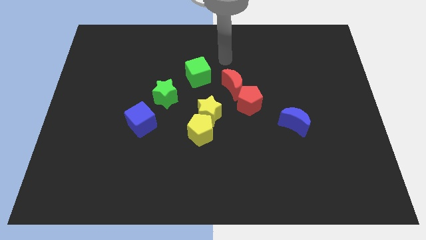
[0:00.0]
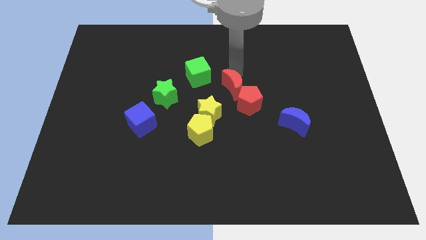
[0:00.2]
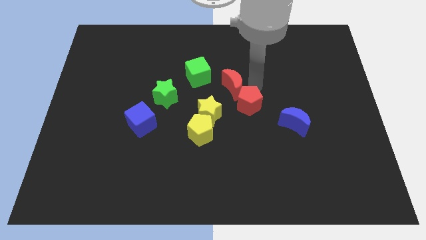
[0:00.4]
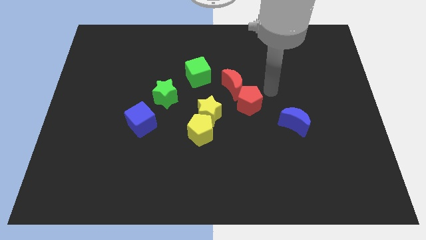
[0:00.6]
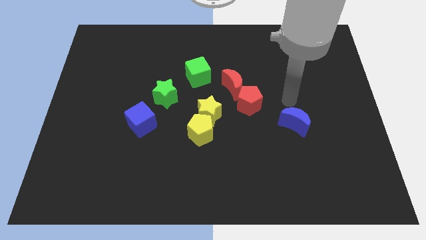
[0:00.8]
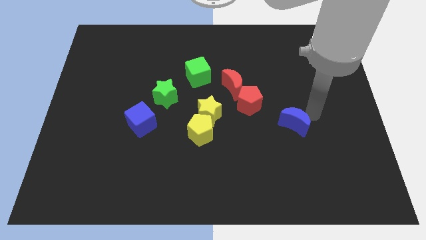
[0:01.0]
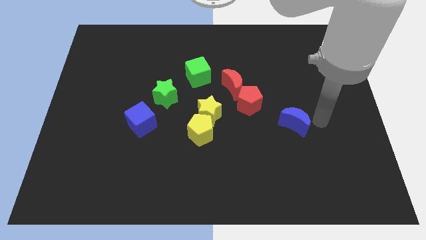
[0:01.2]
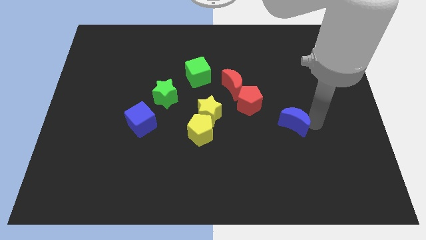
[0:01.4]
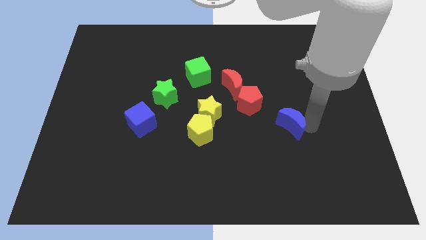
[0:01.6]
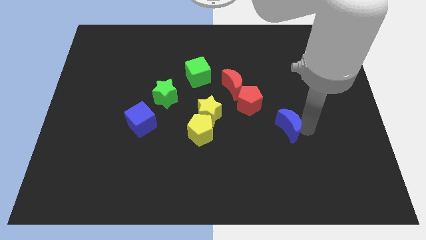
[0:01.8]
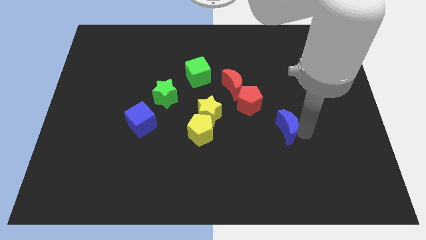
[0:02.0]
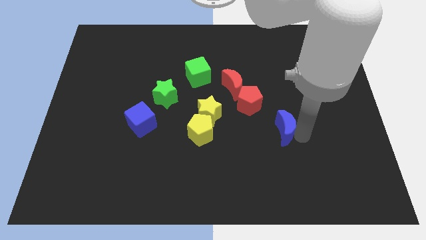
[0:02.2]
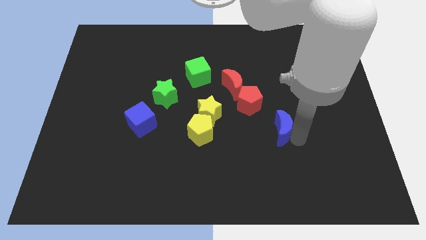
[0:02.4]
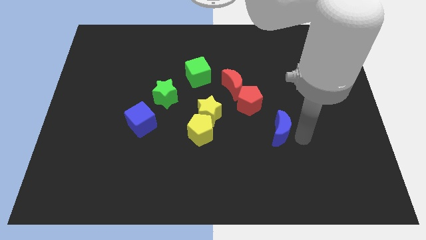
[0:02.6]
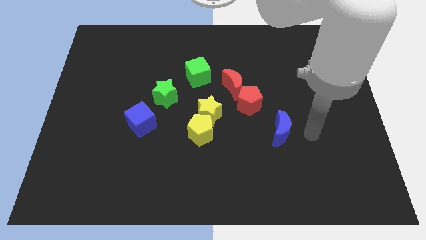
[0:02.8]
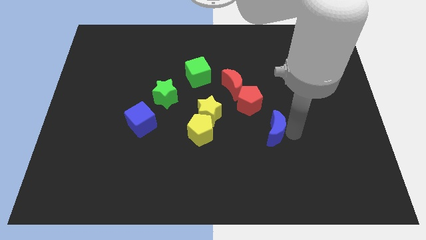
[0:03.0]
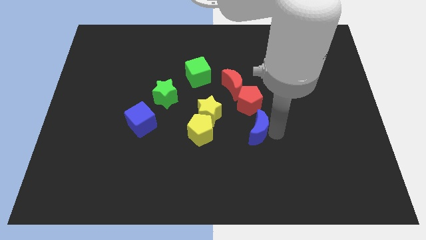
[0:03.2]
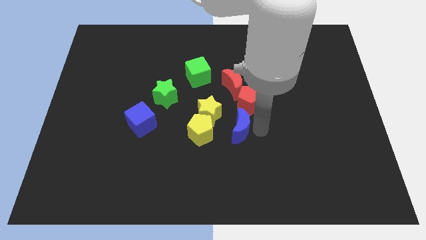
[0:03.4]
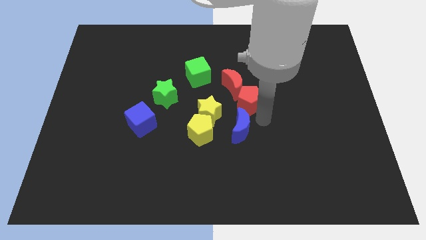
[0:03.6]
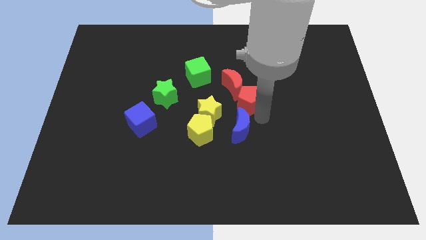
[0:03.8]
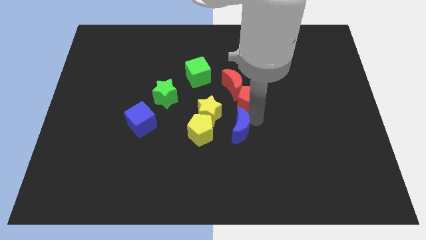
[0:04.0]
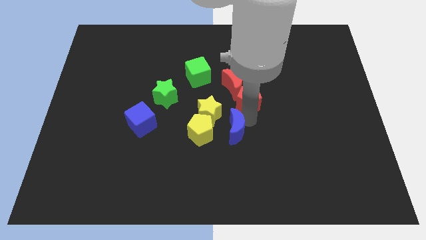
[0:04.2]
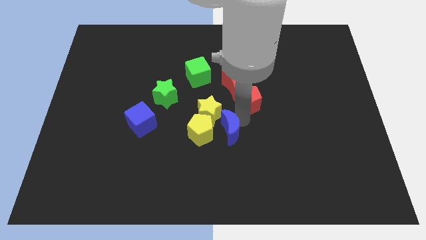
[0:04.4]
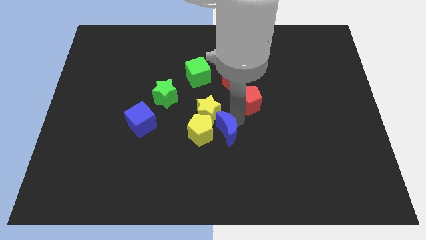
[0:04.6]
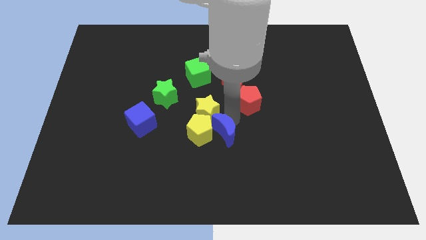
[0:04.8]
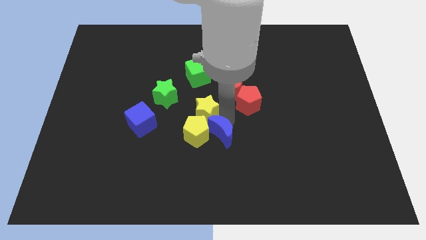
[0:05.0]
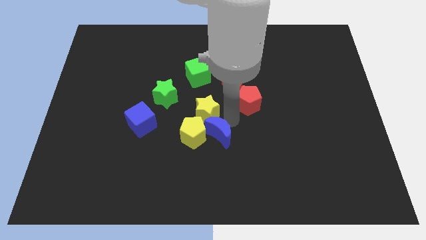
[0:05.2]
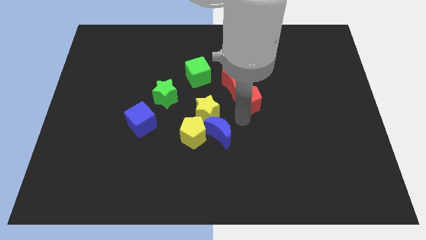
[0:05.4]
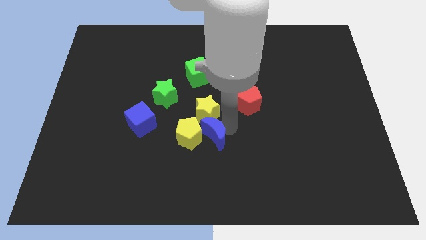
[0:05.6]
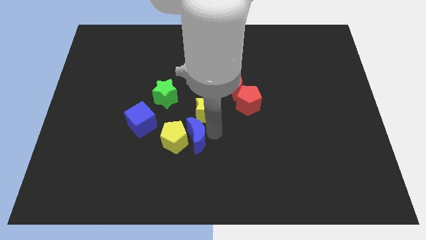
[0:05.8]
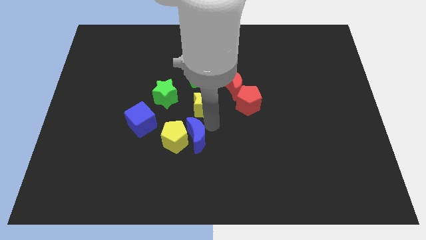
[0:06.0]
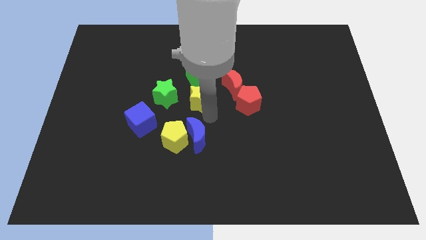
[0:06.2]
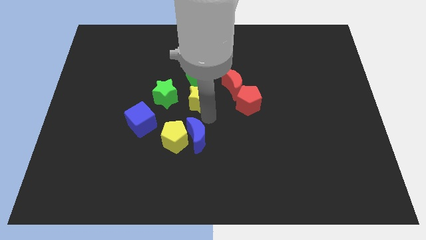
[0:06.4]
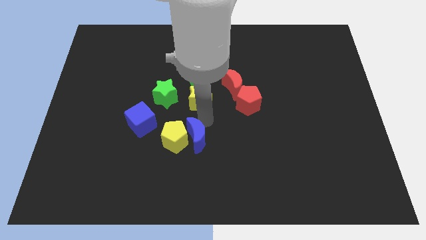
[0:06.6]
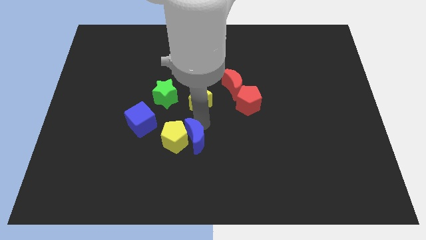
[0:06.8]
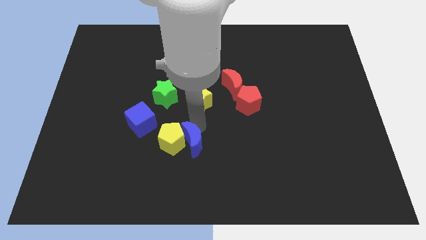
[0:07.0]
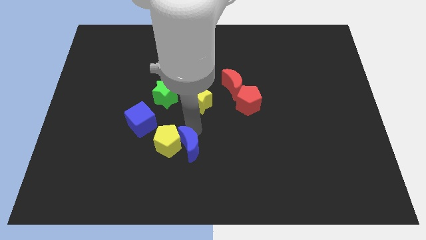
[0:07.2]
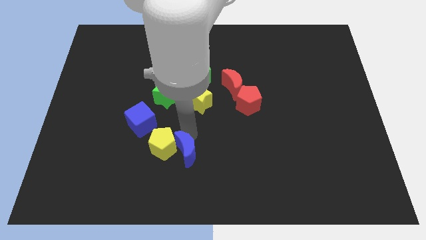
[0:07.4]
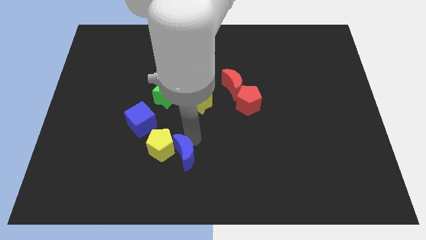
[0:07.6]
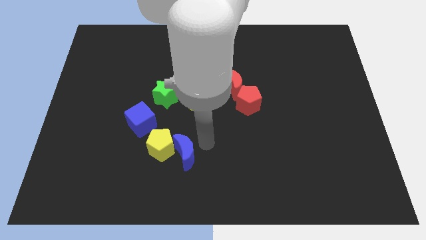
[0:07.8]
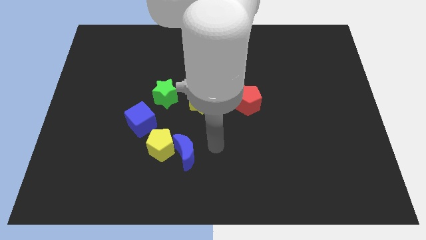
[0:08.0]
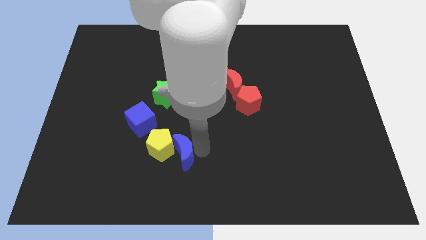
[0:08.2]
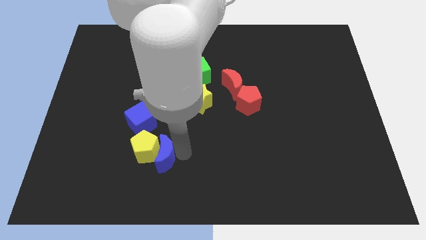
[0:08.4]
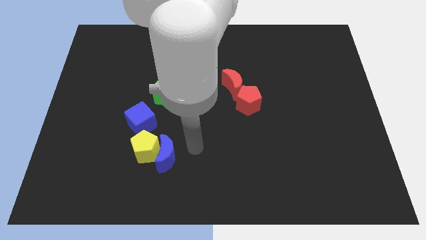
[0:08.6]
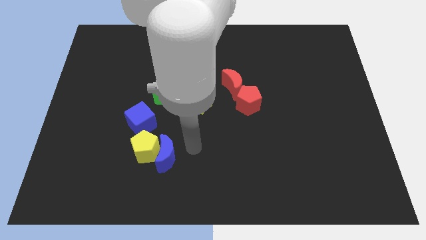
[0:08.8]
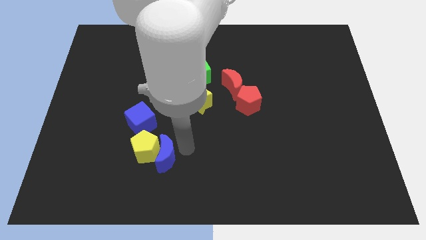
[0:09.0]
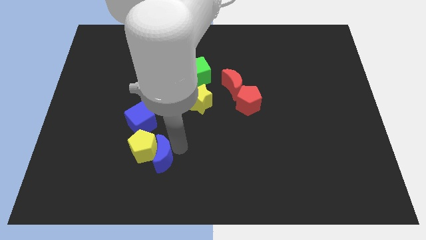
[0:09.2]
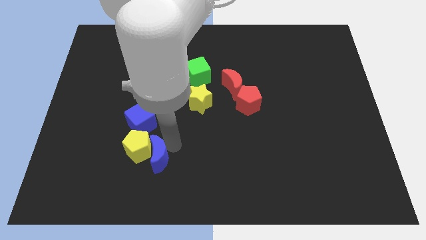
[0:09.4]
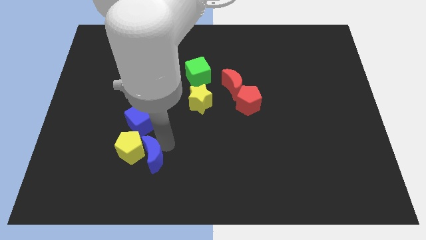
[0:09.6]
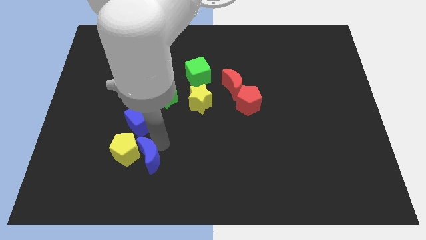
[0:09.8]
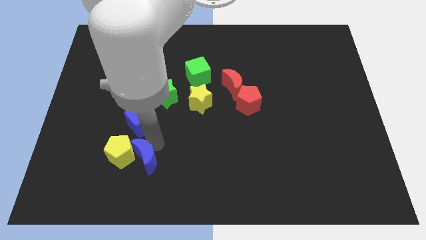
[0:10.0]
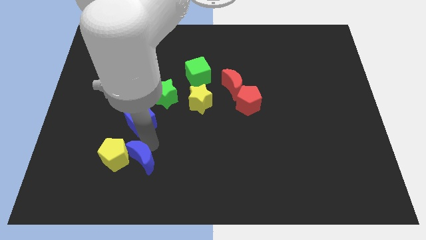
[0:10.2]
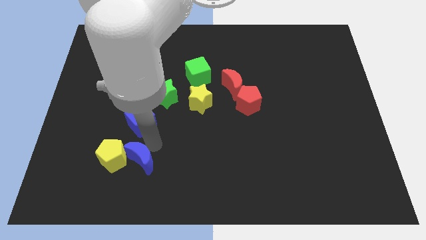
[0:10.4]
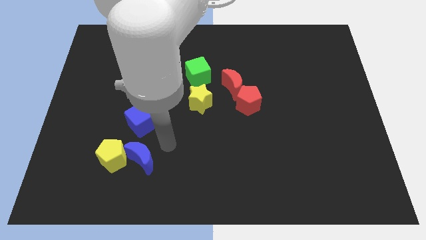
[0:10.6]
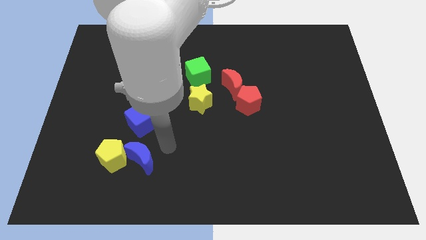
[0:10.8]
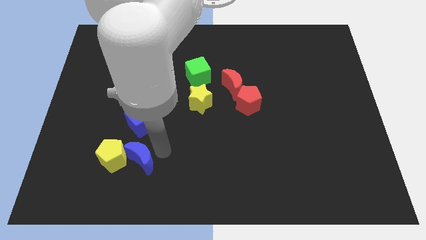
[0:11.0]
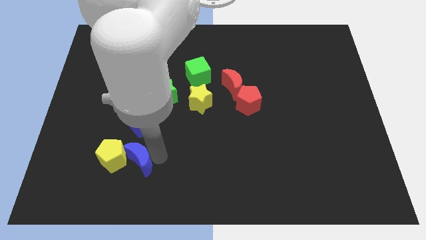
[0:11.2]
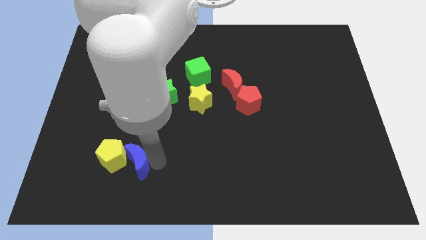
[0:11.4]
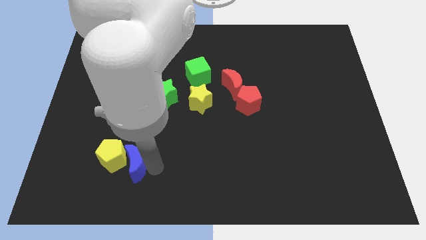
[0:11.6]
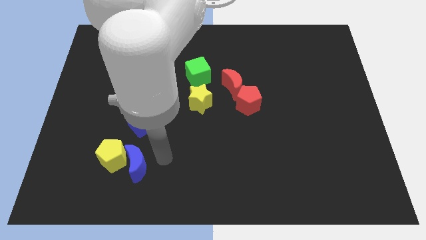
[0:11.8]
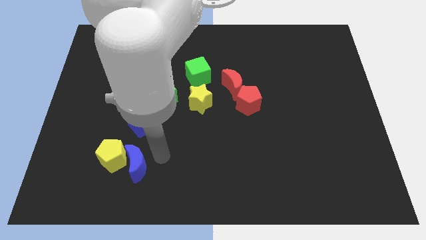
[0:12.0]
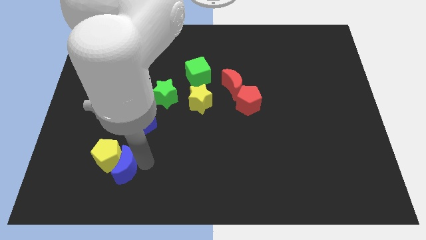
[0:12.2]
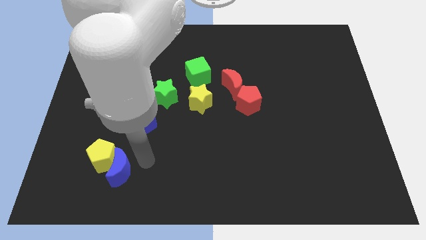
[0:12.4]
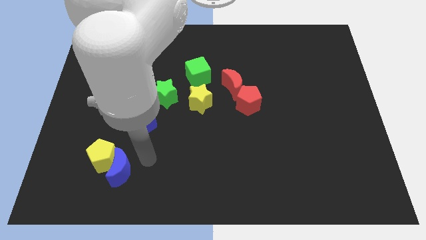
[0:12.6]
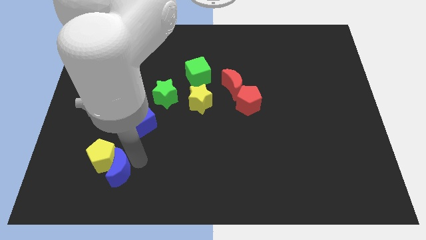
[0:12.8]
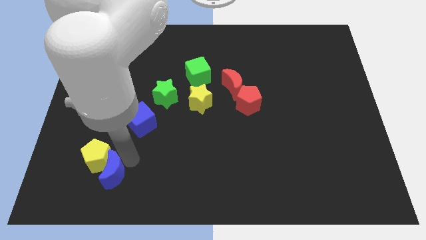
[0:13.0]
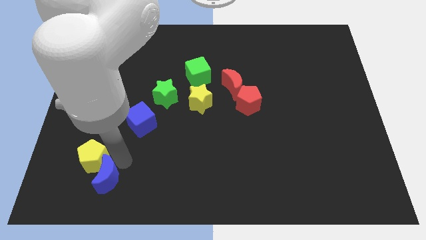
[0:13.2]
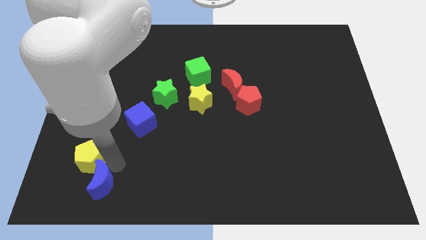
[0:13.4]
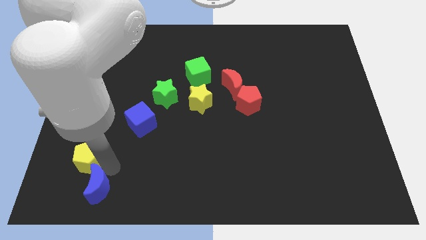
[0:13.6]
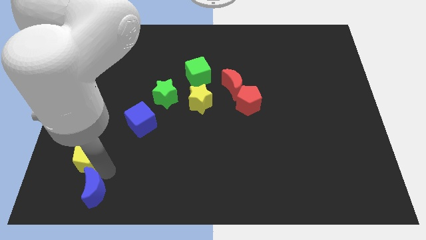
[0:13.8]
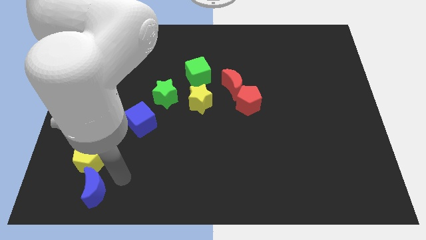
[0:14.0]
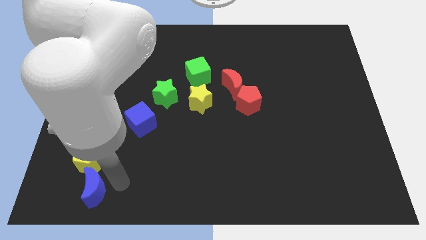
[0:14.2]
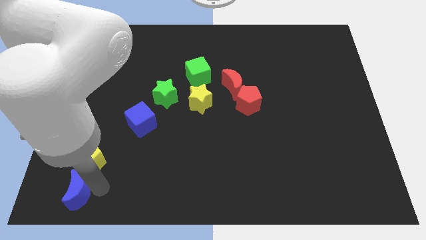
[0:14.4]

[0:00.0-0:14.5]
put the blue moon to the bottom left corner
